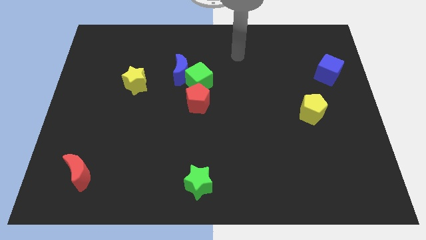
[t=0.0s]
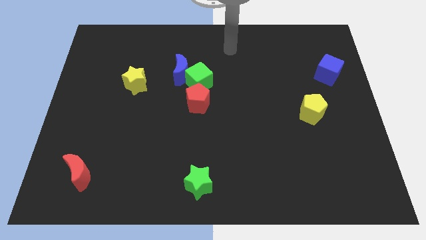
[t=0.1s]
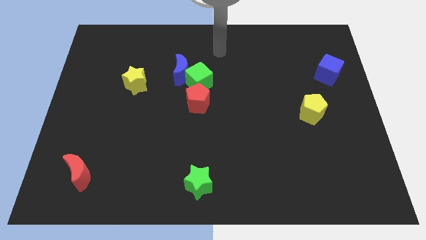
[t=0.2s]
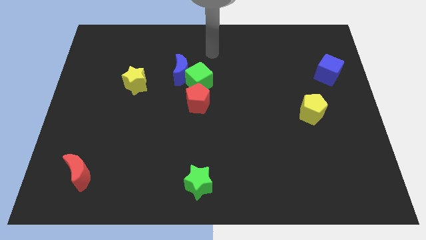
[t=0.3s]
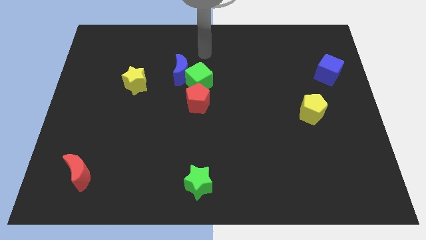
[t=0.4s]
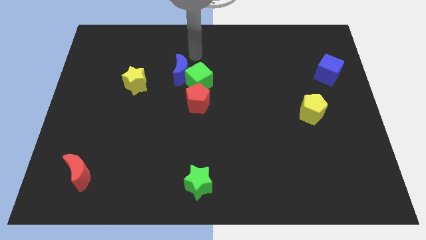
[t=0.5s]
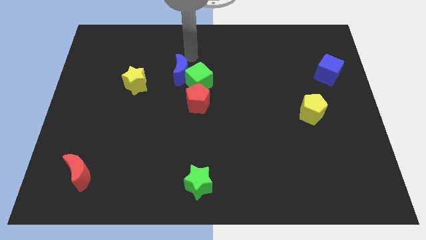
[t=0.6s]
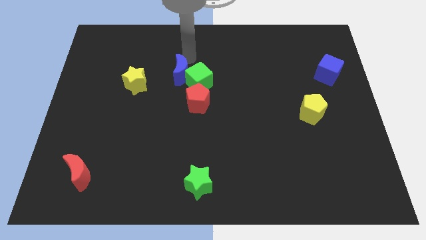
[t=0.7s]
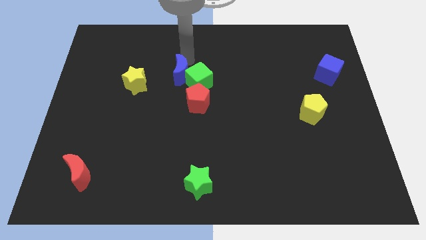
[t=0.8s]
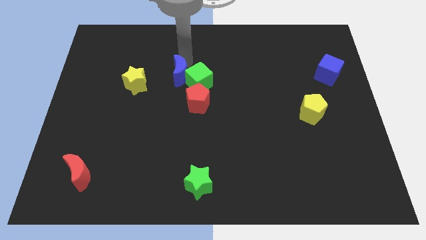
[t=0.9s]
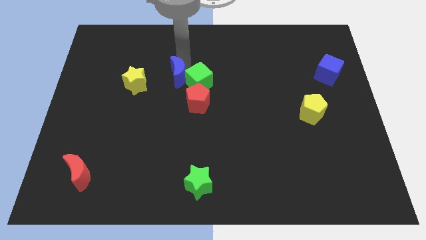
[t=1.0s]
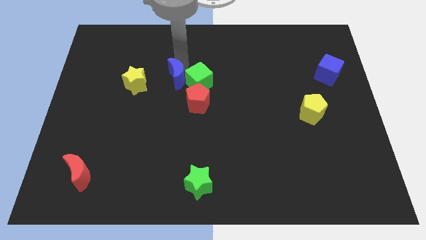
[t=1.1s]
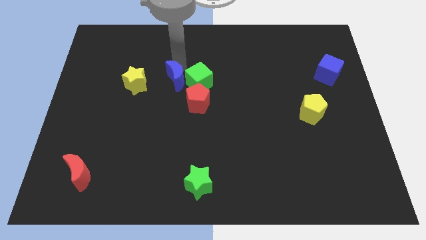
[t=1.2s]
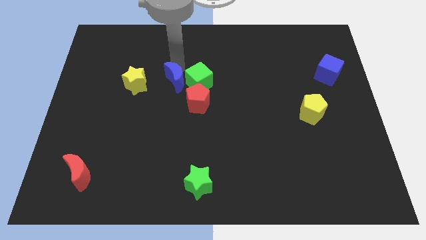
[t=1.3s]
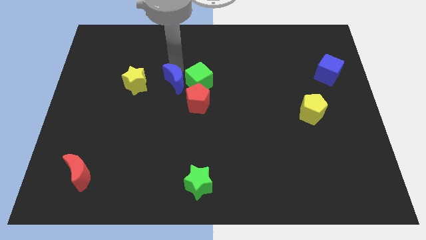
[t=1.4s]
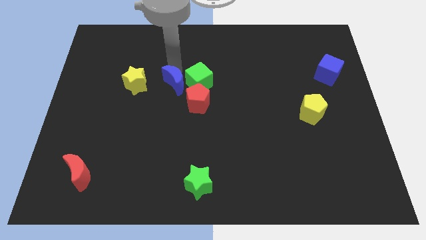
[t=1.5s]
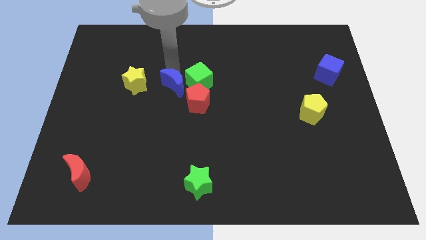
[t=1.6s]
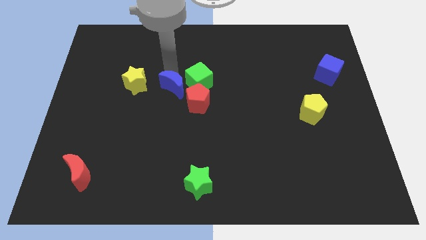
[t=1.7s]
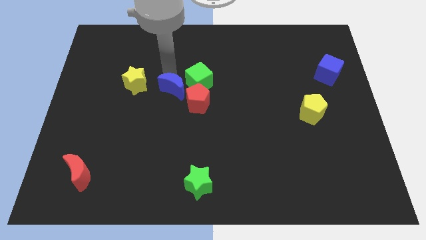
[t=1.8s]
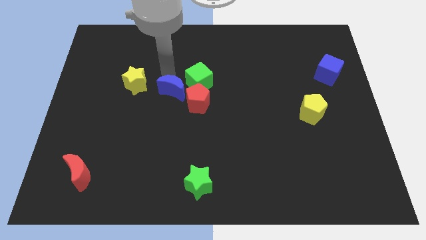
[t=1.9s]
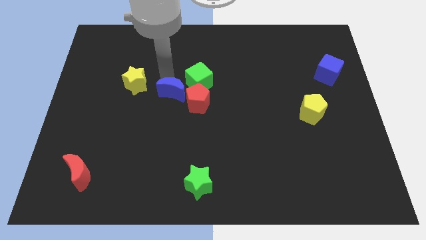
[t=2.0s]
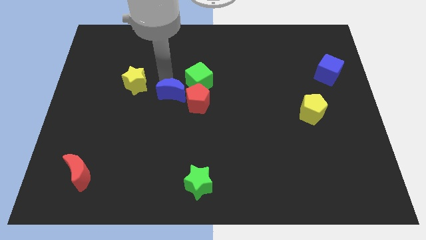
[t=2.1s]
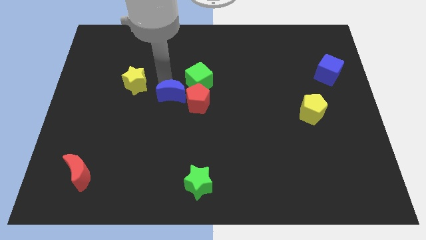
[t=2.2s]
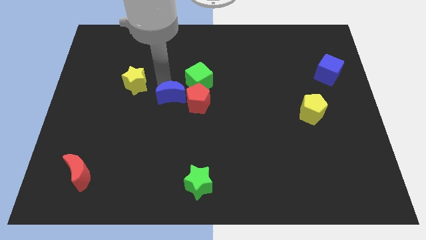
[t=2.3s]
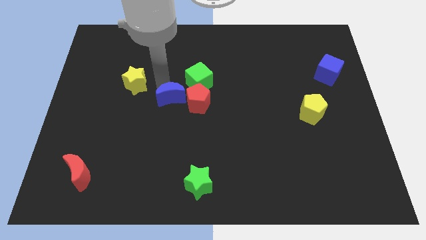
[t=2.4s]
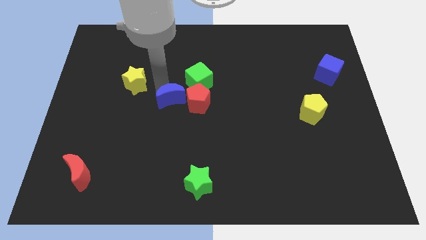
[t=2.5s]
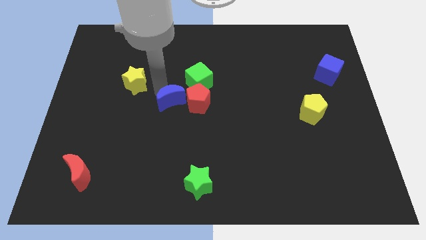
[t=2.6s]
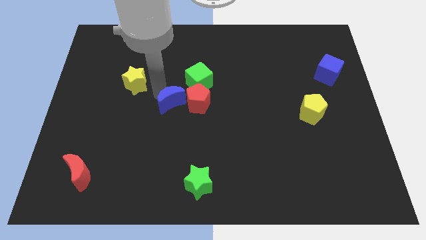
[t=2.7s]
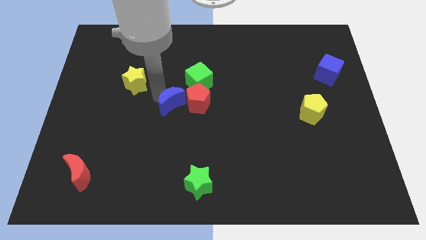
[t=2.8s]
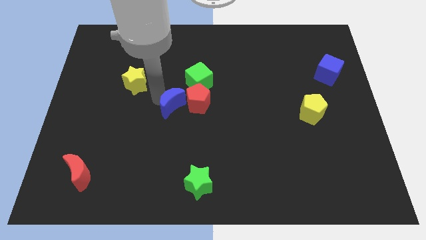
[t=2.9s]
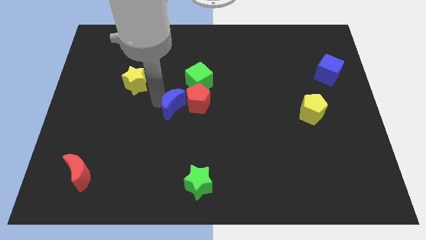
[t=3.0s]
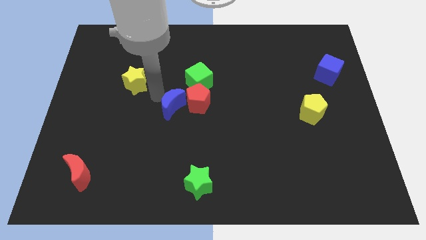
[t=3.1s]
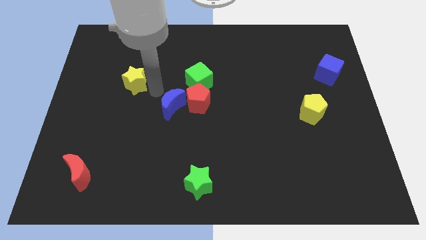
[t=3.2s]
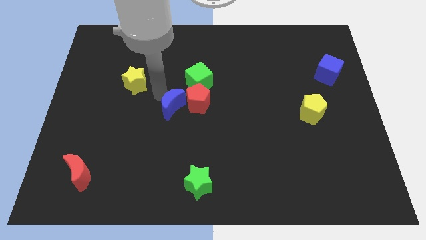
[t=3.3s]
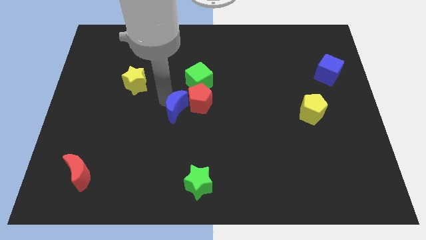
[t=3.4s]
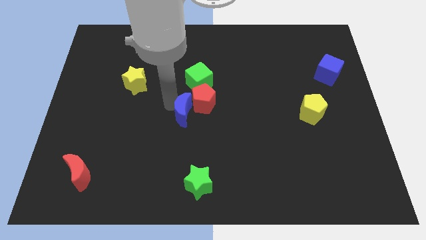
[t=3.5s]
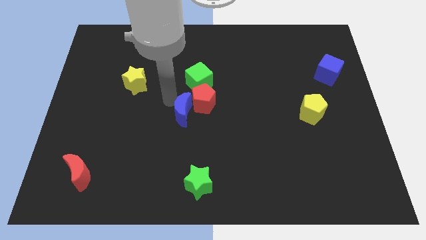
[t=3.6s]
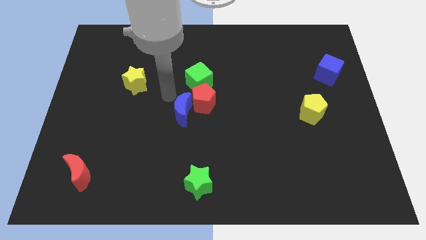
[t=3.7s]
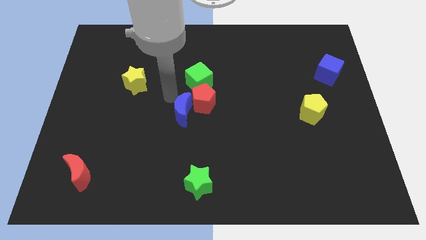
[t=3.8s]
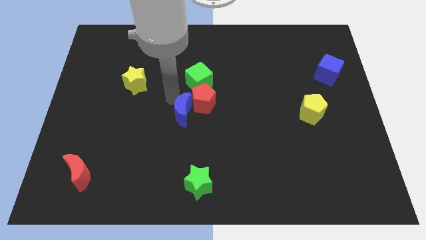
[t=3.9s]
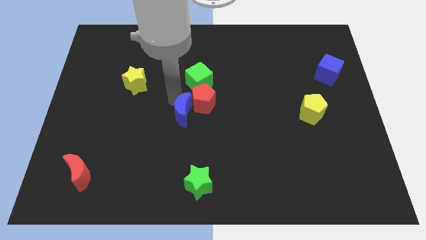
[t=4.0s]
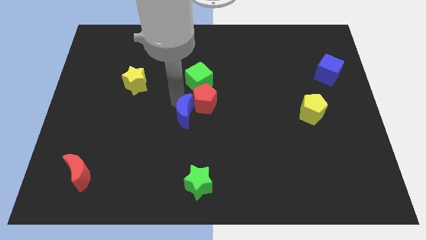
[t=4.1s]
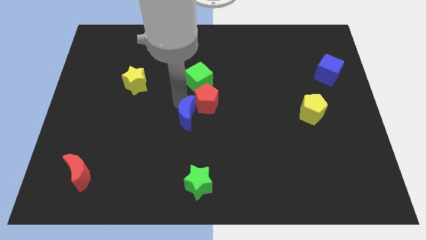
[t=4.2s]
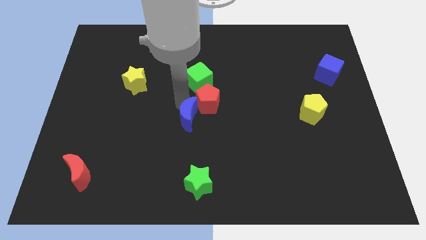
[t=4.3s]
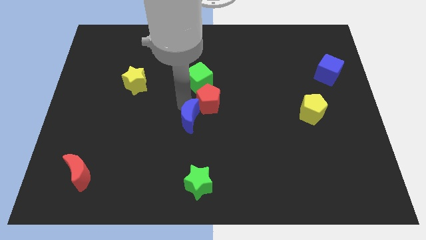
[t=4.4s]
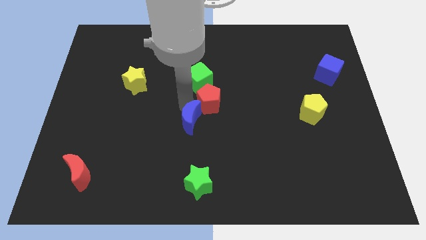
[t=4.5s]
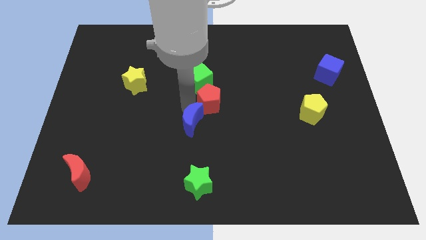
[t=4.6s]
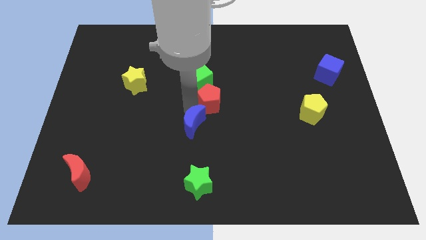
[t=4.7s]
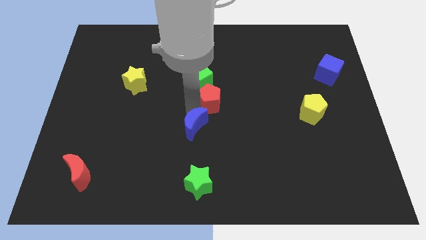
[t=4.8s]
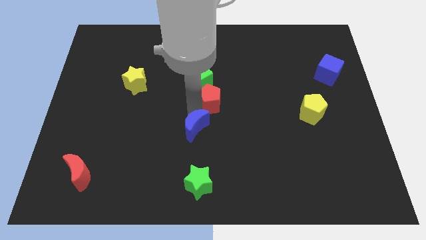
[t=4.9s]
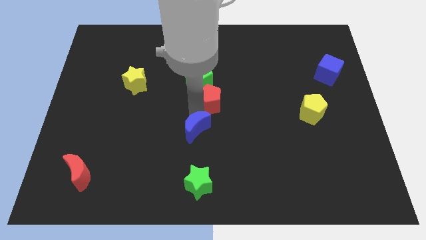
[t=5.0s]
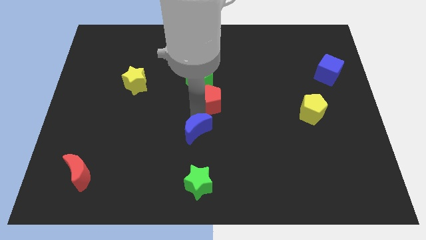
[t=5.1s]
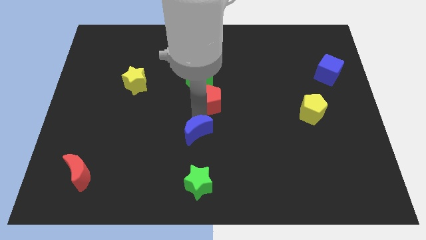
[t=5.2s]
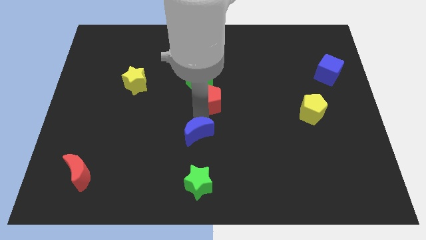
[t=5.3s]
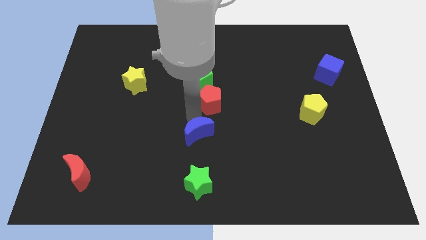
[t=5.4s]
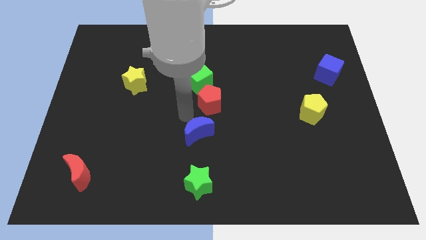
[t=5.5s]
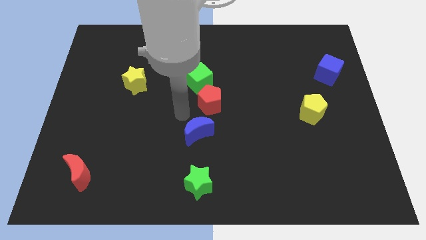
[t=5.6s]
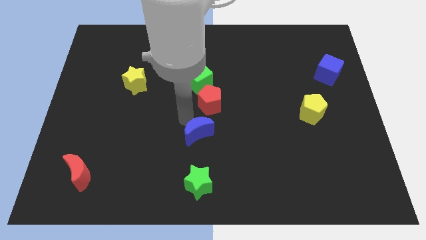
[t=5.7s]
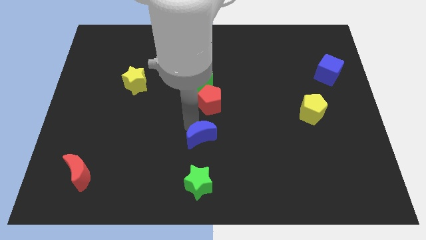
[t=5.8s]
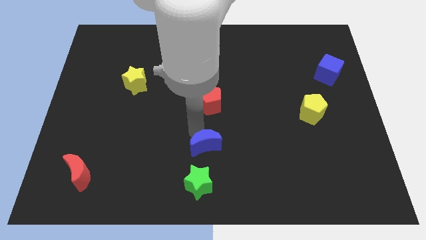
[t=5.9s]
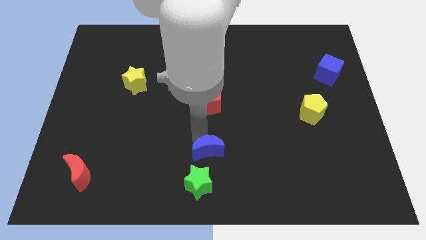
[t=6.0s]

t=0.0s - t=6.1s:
slide the blue moon diagonally up and to the right of the green star
